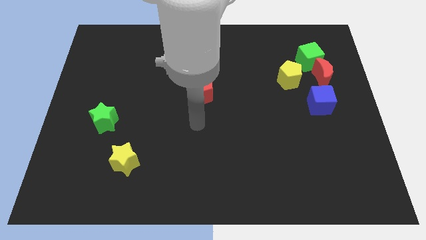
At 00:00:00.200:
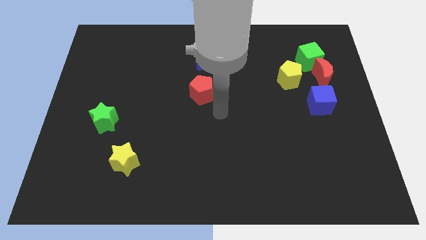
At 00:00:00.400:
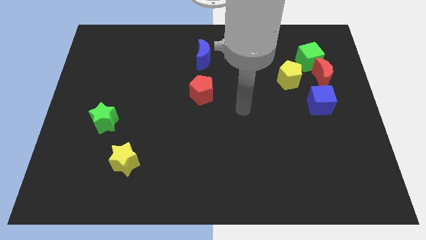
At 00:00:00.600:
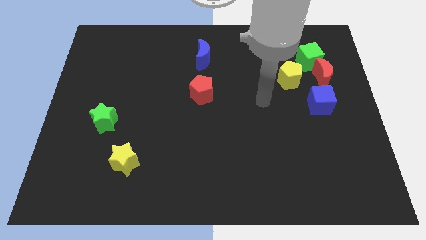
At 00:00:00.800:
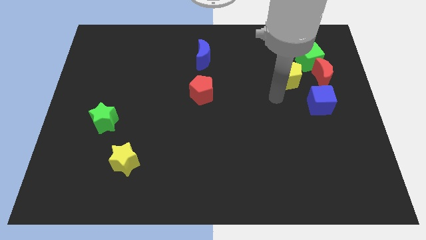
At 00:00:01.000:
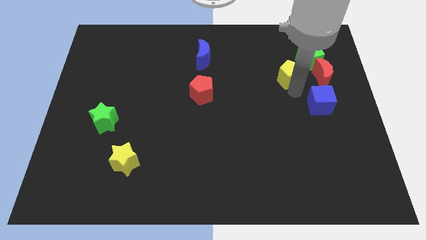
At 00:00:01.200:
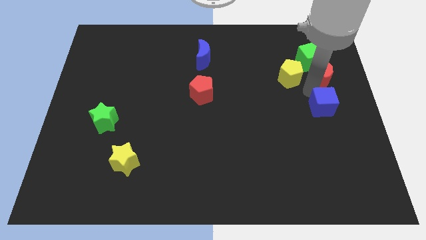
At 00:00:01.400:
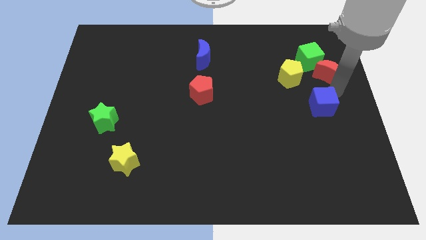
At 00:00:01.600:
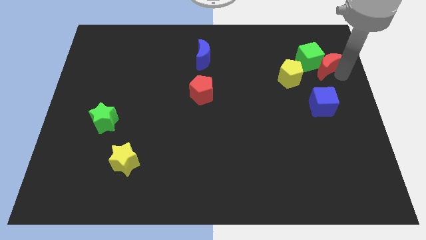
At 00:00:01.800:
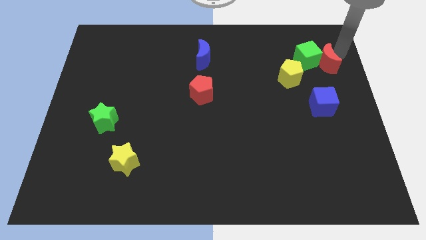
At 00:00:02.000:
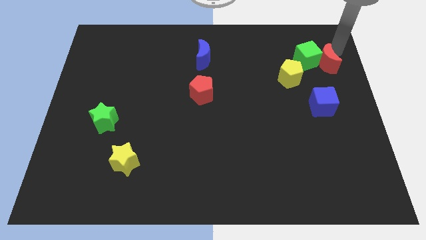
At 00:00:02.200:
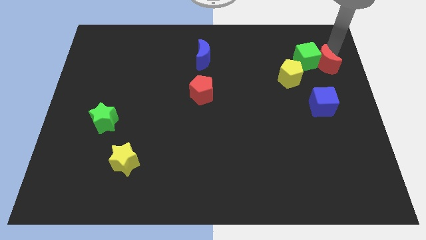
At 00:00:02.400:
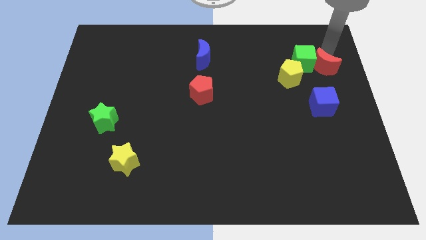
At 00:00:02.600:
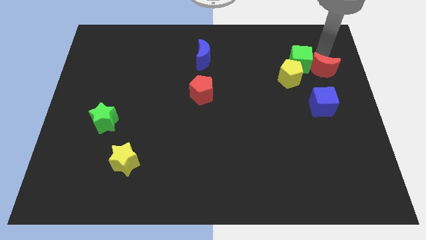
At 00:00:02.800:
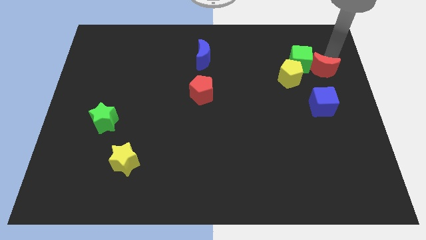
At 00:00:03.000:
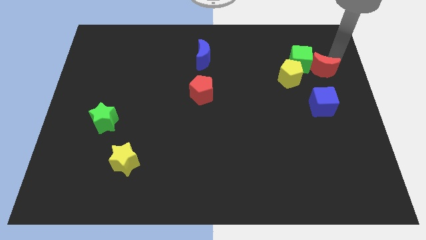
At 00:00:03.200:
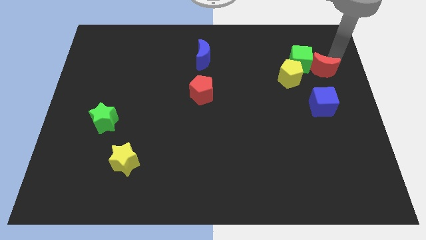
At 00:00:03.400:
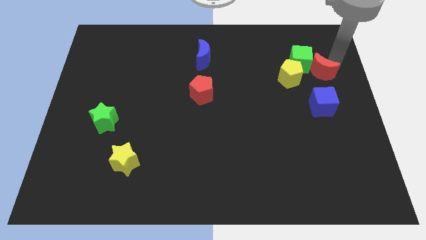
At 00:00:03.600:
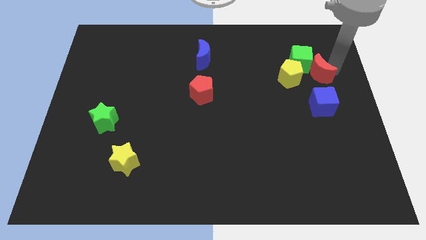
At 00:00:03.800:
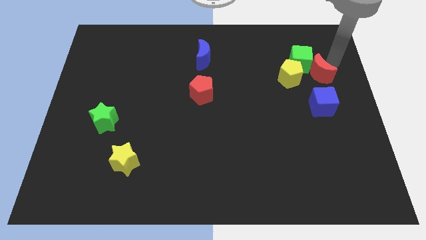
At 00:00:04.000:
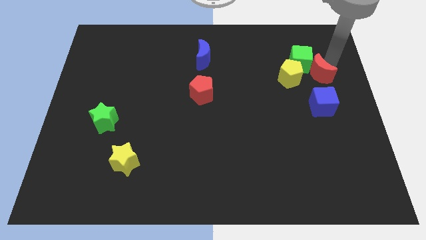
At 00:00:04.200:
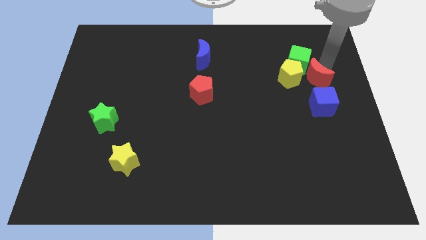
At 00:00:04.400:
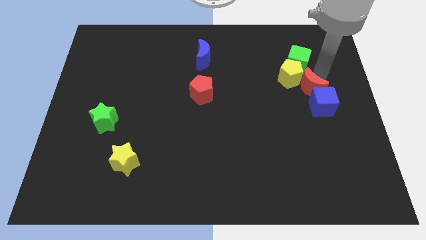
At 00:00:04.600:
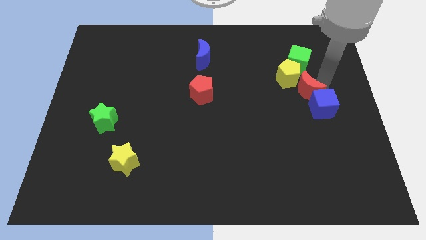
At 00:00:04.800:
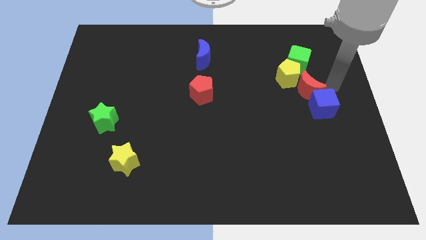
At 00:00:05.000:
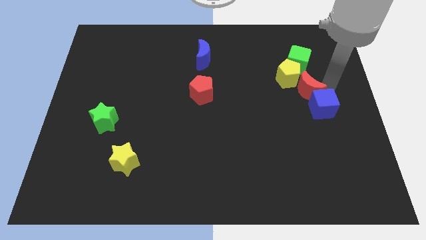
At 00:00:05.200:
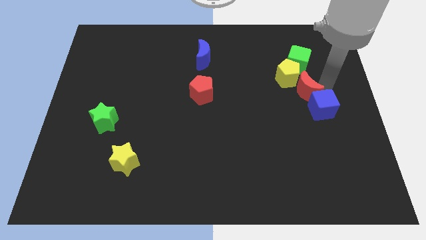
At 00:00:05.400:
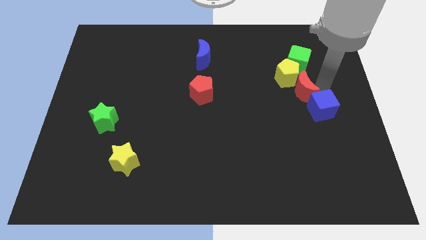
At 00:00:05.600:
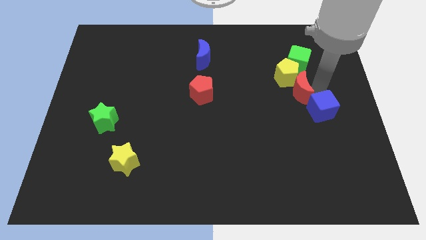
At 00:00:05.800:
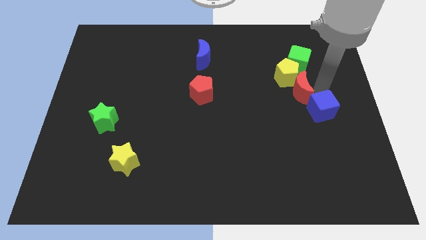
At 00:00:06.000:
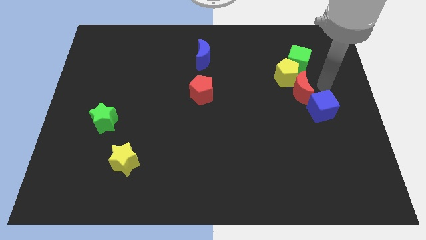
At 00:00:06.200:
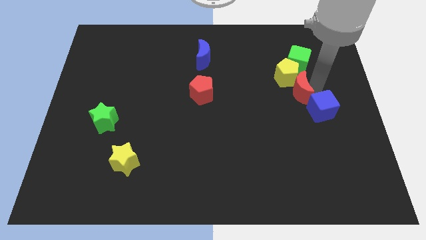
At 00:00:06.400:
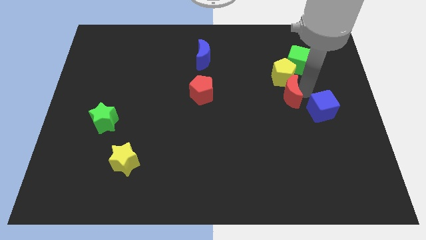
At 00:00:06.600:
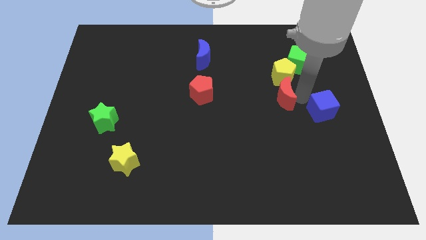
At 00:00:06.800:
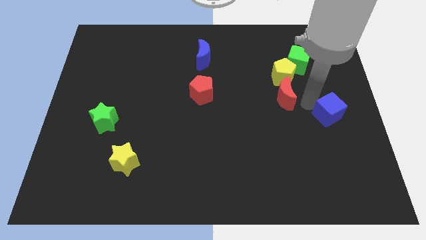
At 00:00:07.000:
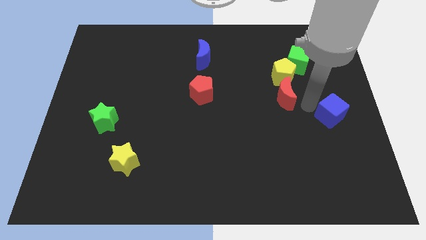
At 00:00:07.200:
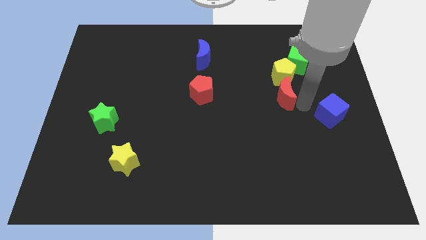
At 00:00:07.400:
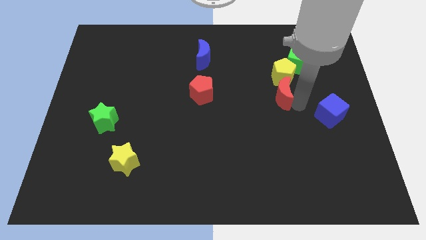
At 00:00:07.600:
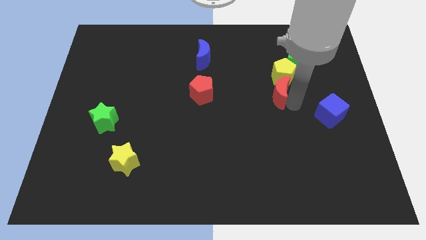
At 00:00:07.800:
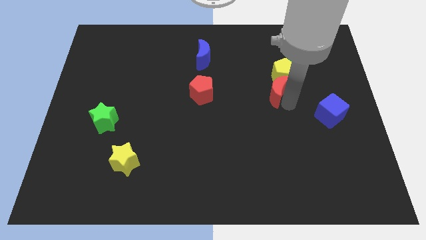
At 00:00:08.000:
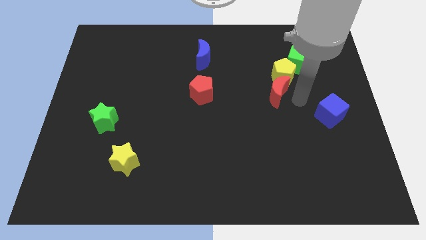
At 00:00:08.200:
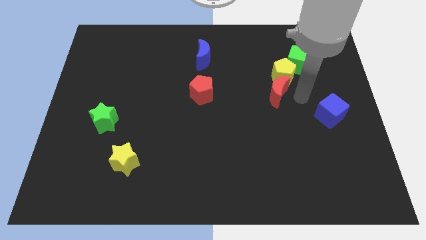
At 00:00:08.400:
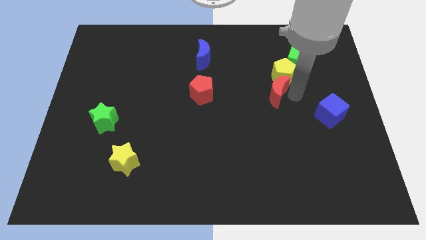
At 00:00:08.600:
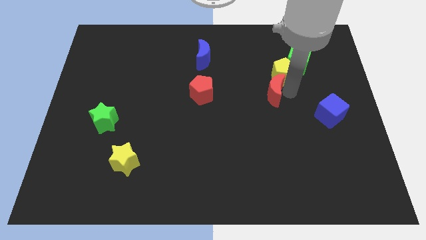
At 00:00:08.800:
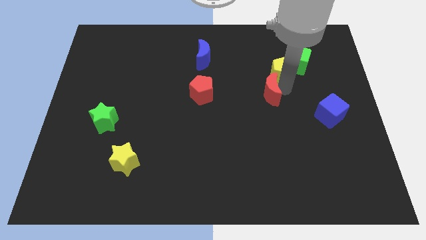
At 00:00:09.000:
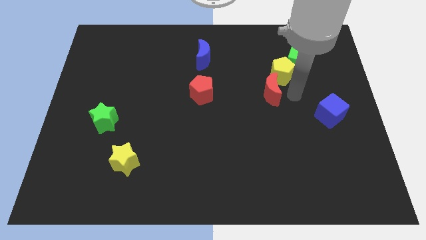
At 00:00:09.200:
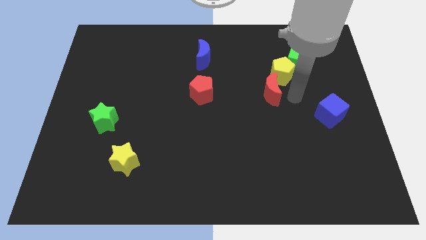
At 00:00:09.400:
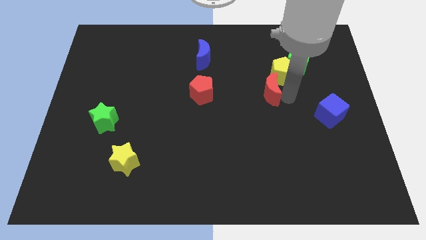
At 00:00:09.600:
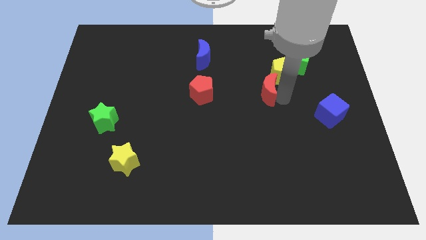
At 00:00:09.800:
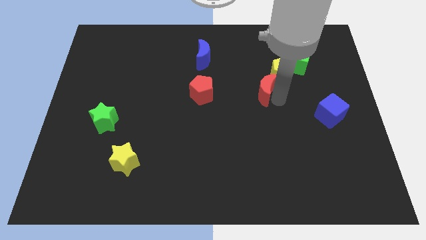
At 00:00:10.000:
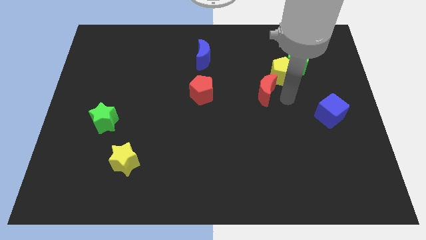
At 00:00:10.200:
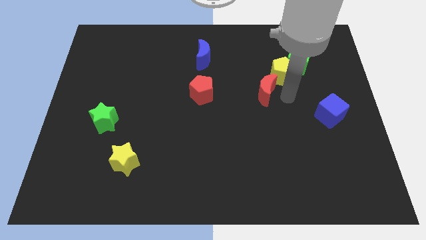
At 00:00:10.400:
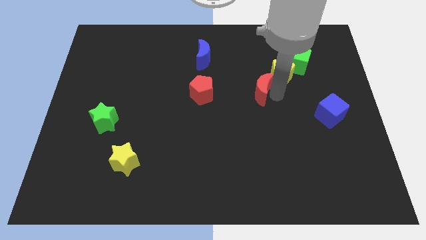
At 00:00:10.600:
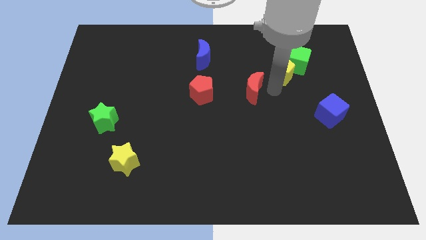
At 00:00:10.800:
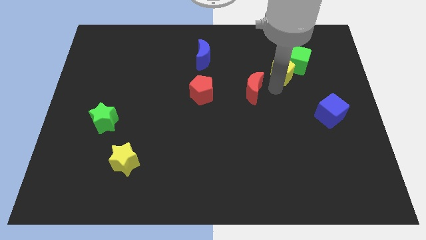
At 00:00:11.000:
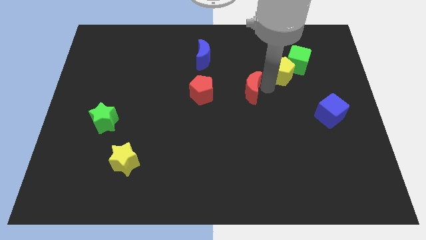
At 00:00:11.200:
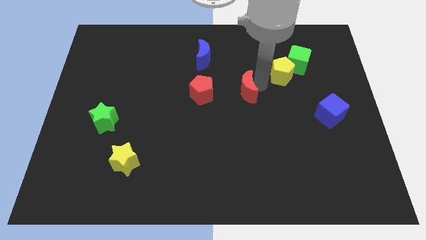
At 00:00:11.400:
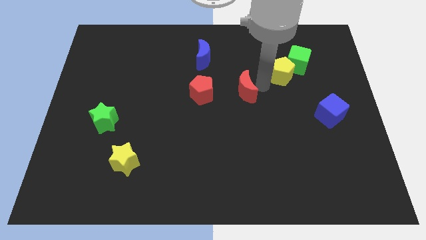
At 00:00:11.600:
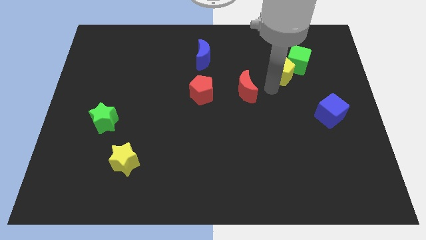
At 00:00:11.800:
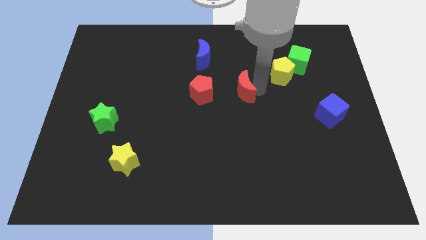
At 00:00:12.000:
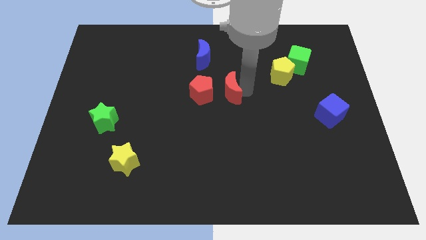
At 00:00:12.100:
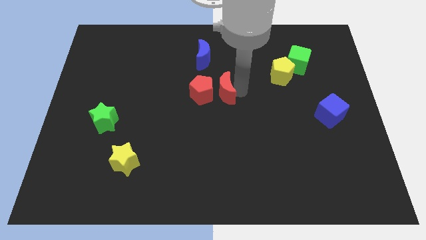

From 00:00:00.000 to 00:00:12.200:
push the red moon to the red pentagon
